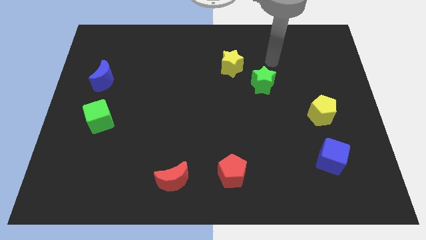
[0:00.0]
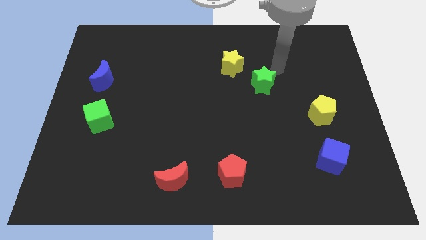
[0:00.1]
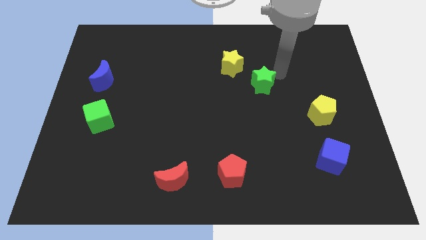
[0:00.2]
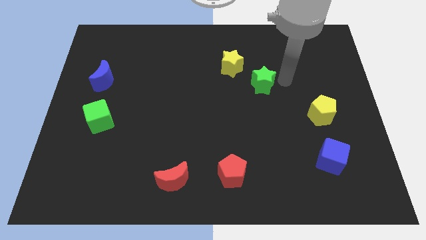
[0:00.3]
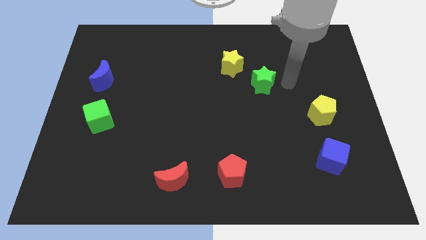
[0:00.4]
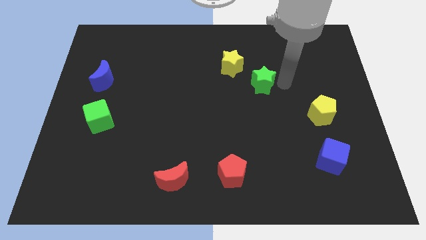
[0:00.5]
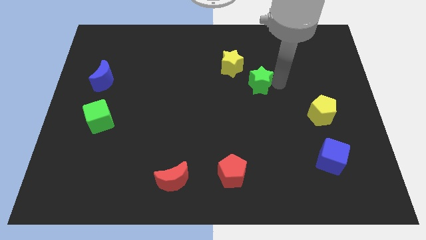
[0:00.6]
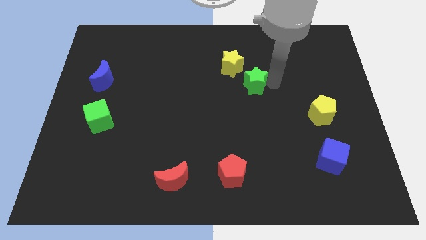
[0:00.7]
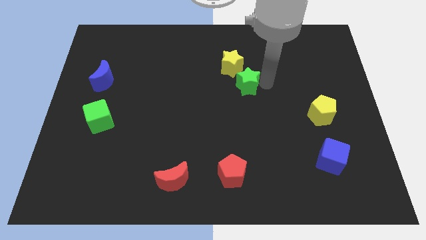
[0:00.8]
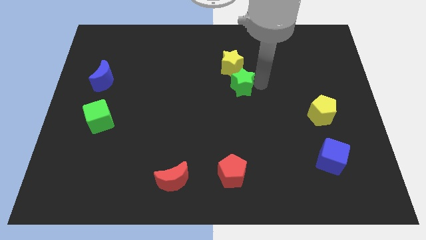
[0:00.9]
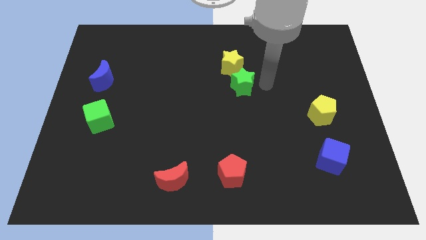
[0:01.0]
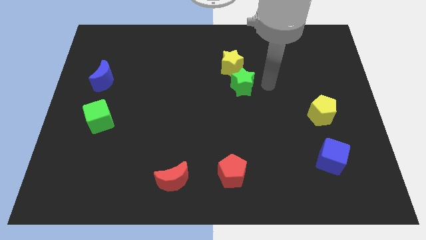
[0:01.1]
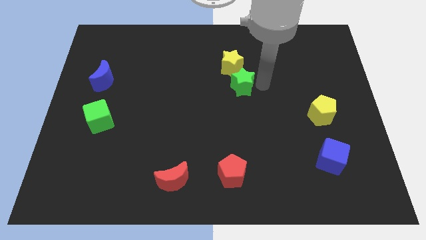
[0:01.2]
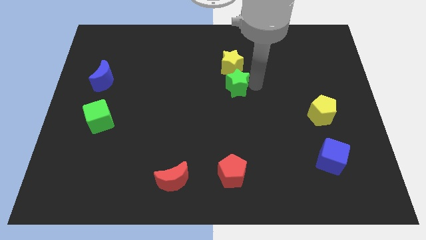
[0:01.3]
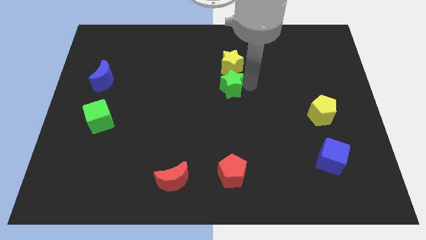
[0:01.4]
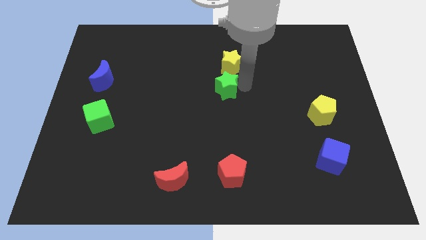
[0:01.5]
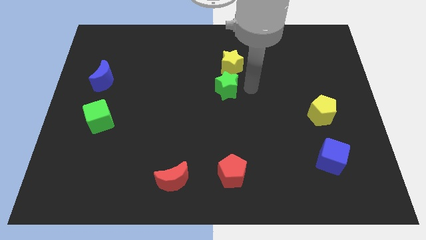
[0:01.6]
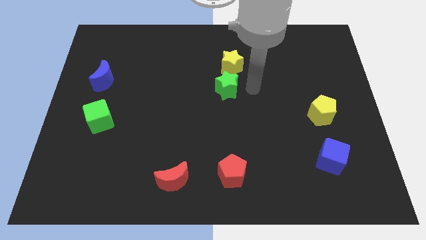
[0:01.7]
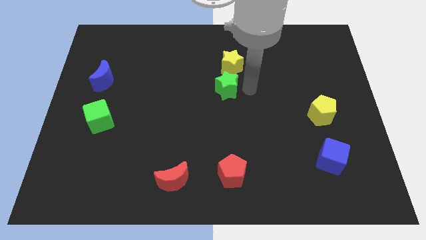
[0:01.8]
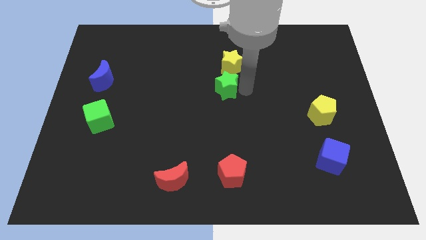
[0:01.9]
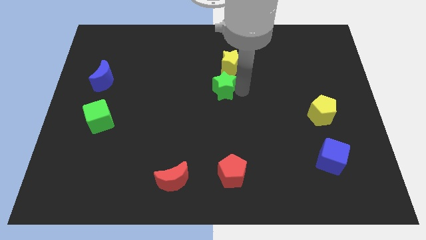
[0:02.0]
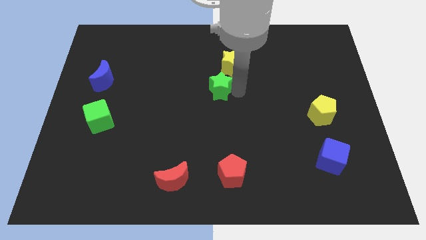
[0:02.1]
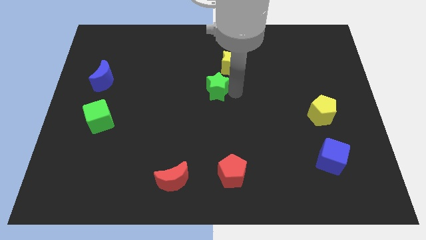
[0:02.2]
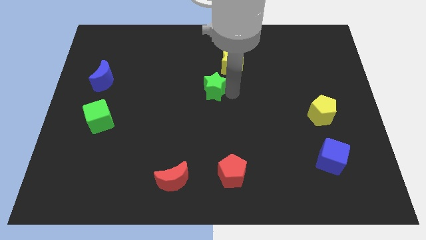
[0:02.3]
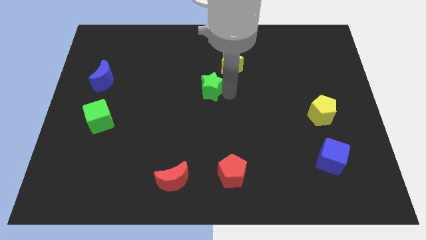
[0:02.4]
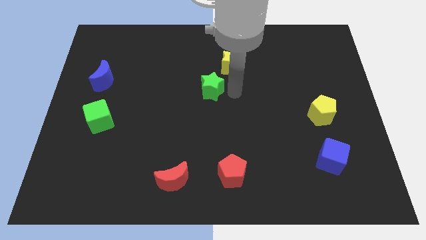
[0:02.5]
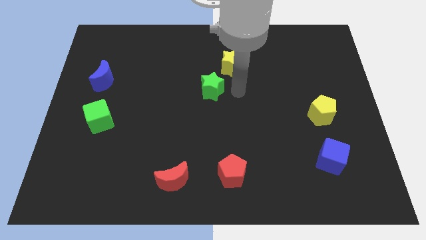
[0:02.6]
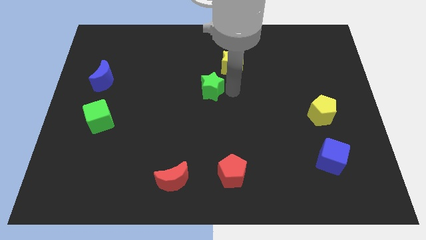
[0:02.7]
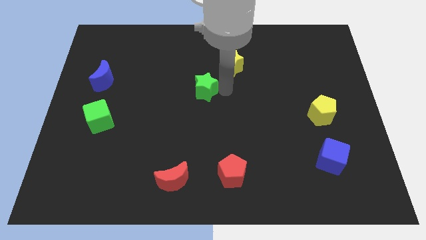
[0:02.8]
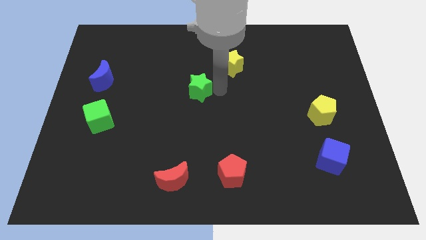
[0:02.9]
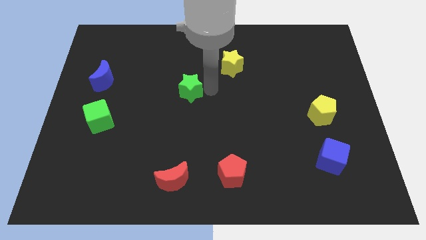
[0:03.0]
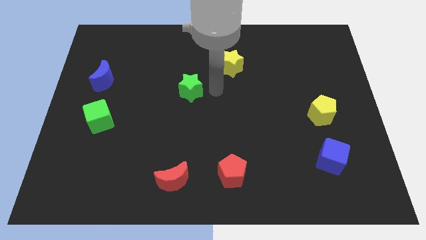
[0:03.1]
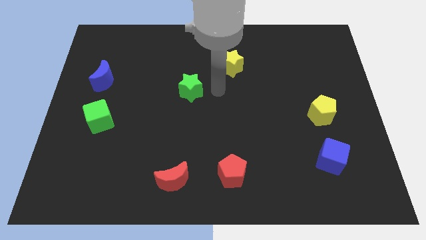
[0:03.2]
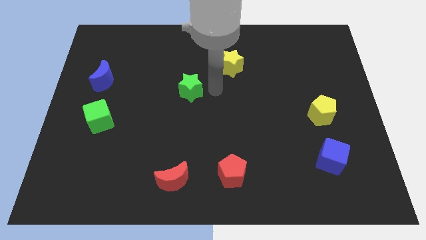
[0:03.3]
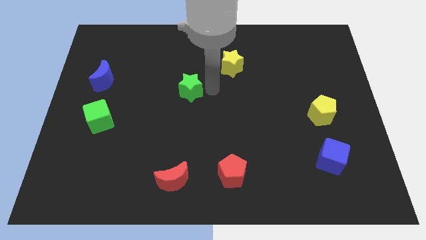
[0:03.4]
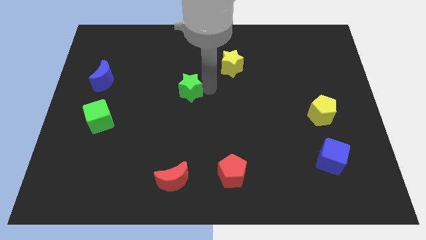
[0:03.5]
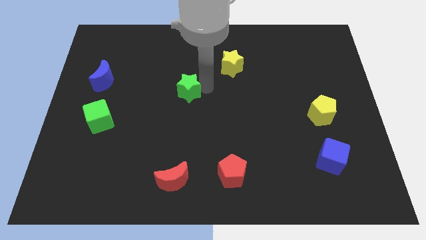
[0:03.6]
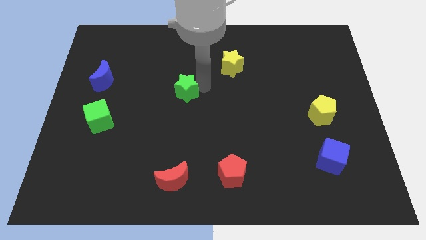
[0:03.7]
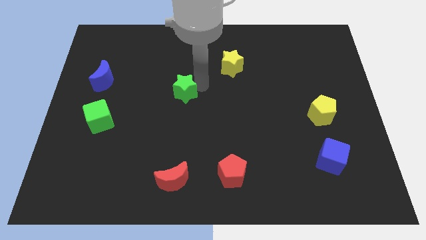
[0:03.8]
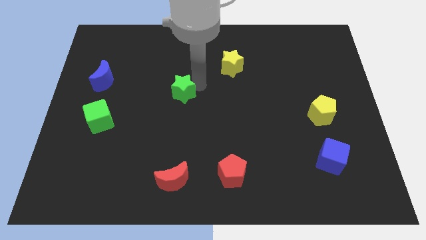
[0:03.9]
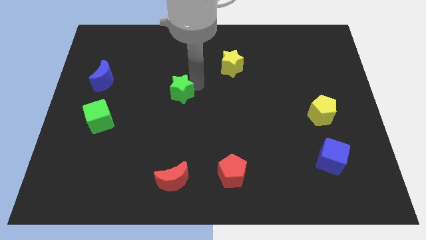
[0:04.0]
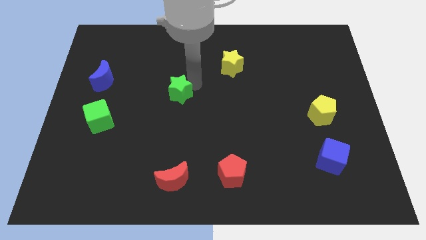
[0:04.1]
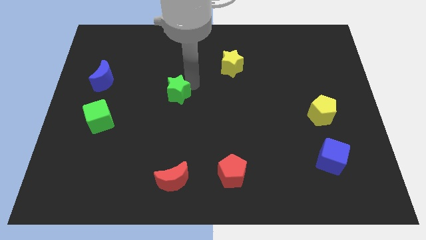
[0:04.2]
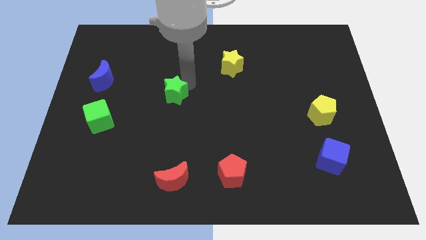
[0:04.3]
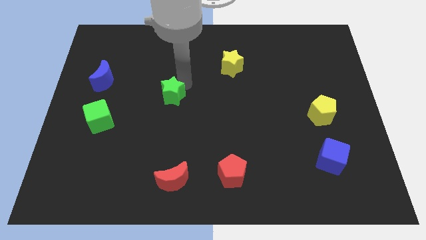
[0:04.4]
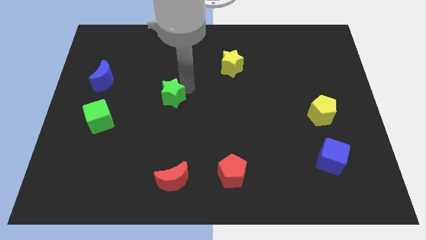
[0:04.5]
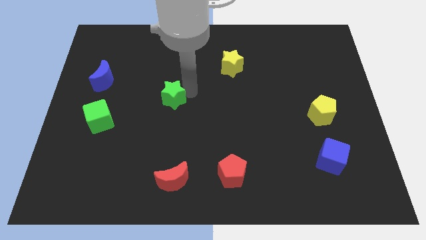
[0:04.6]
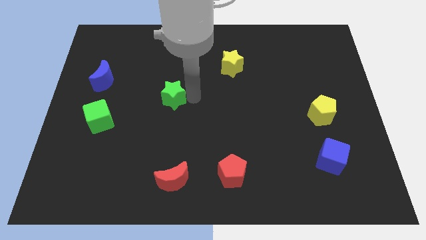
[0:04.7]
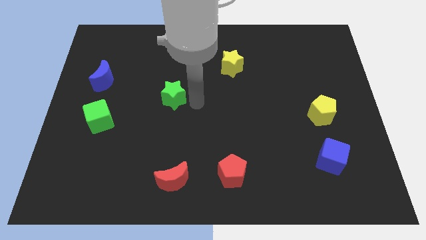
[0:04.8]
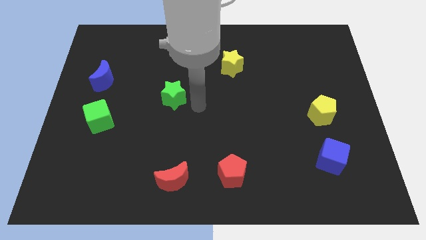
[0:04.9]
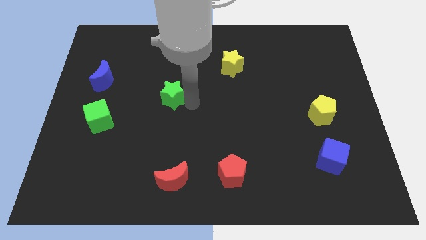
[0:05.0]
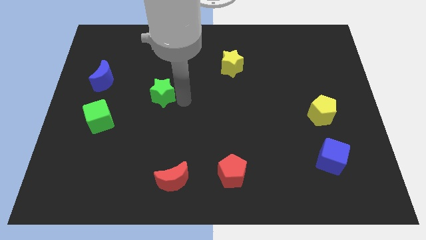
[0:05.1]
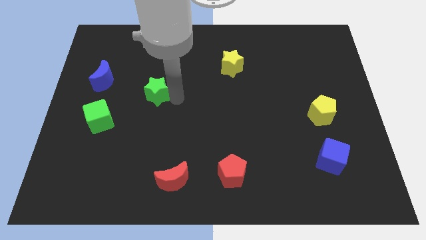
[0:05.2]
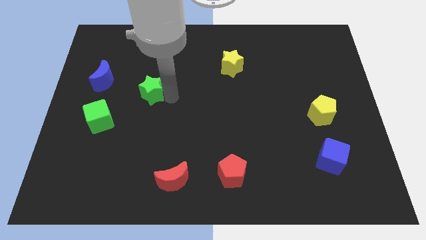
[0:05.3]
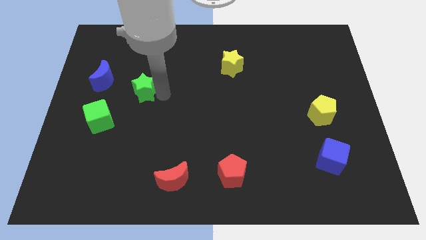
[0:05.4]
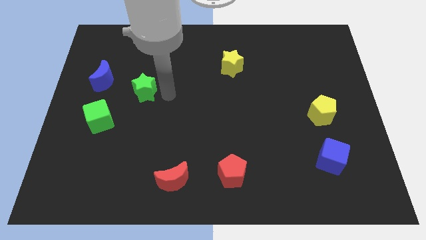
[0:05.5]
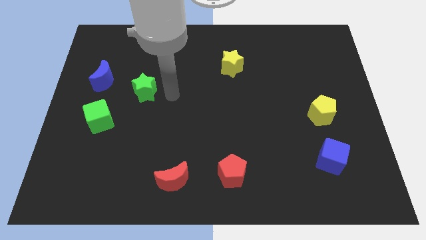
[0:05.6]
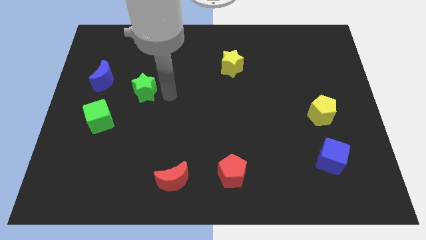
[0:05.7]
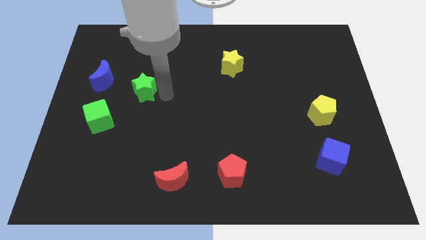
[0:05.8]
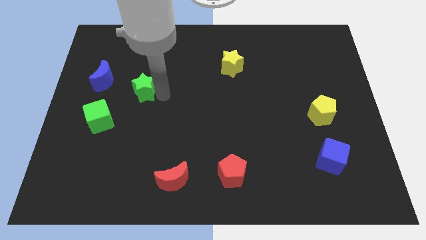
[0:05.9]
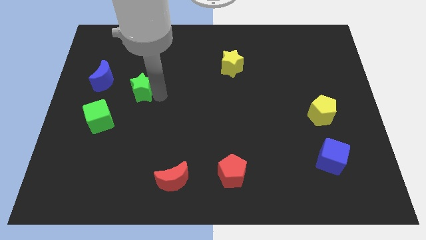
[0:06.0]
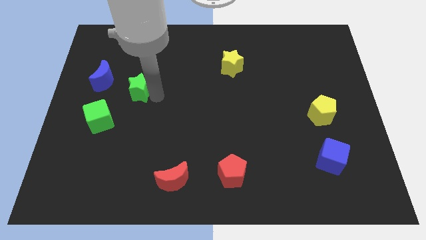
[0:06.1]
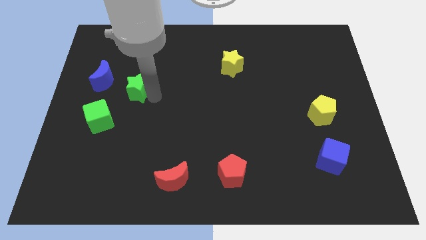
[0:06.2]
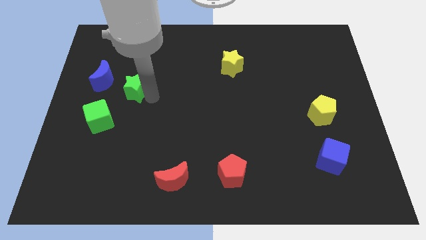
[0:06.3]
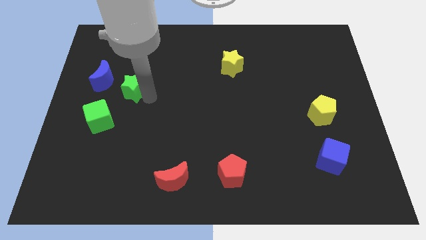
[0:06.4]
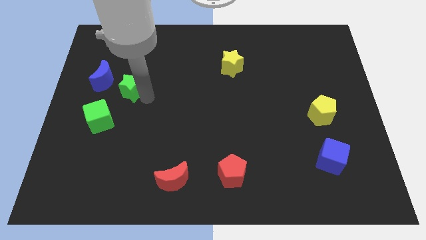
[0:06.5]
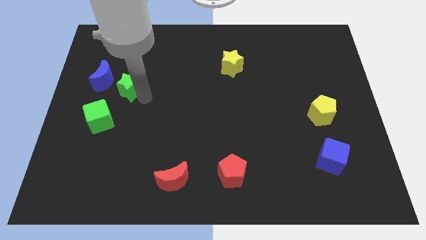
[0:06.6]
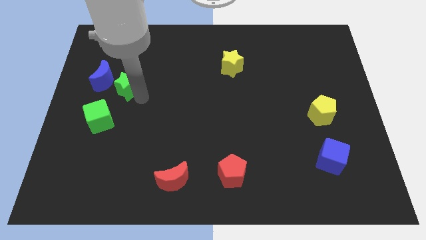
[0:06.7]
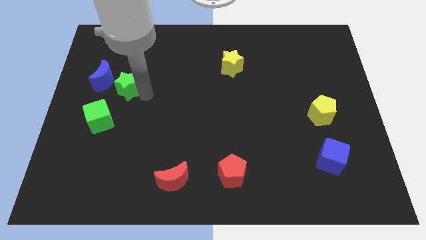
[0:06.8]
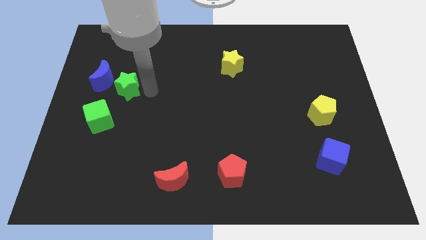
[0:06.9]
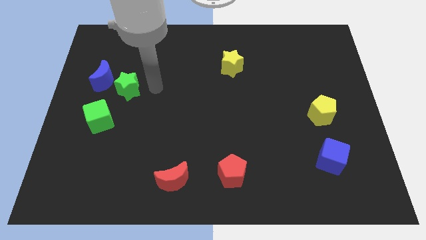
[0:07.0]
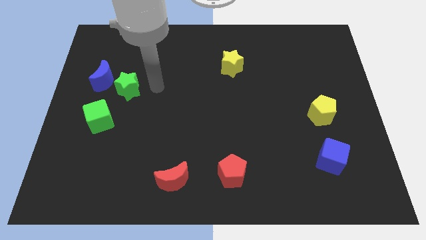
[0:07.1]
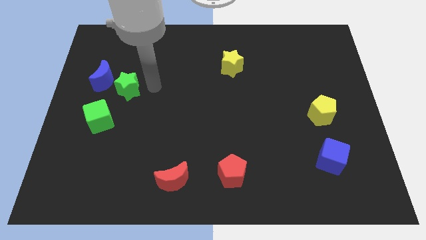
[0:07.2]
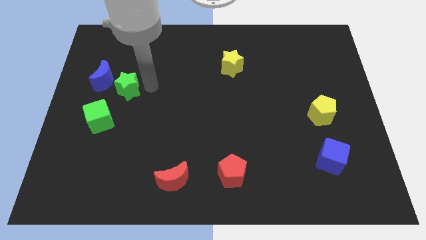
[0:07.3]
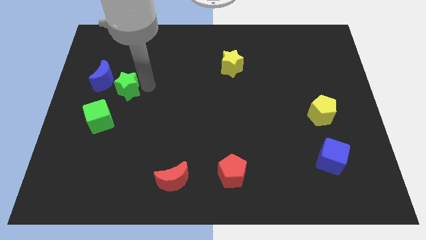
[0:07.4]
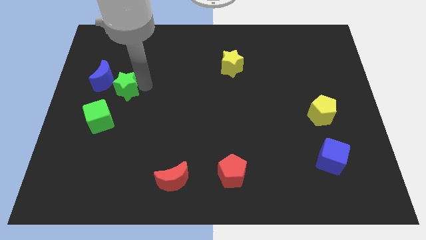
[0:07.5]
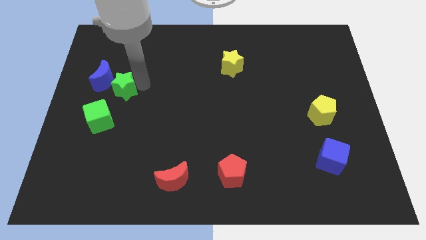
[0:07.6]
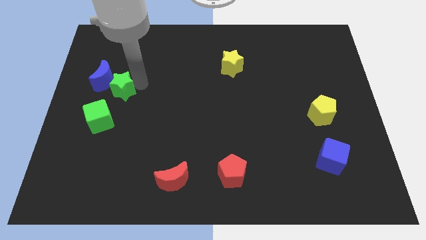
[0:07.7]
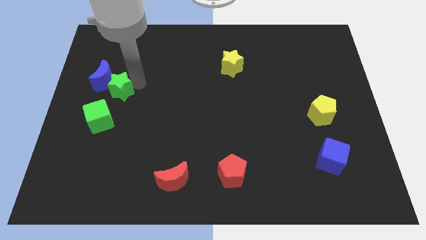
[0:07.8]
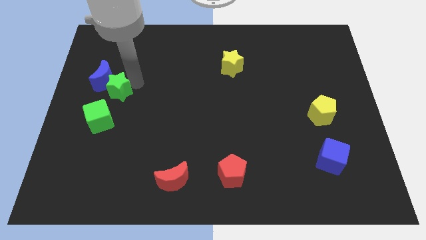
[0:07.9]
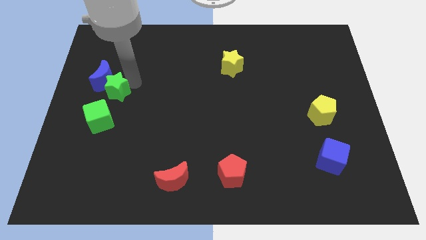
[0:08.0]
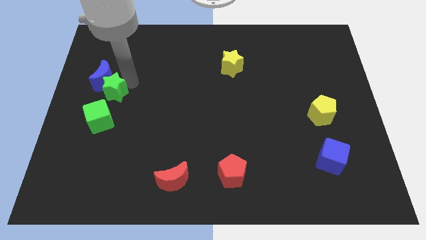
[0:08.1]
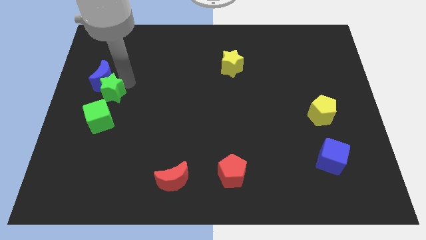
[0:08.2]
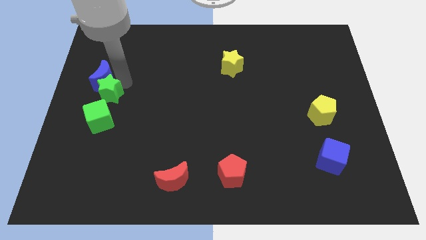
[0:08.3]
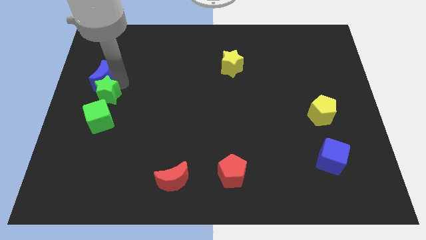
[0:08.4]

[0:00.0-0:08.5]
move the green star to the center left
